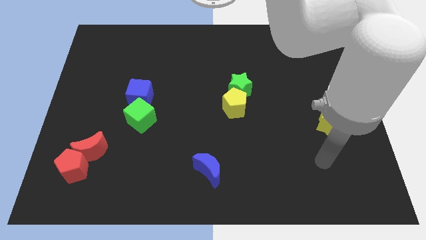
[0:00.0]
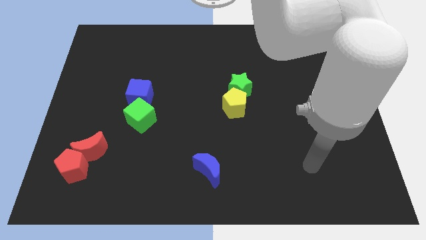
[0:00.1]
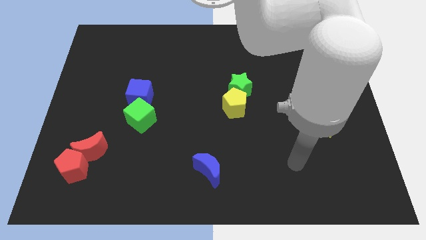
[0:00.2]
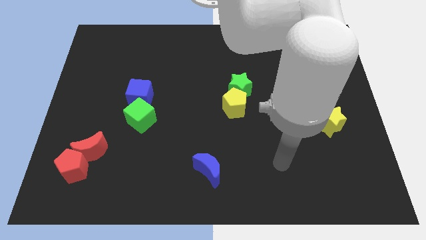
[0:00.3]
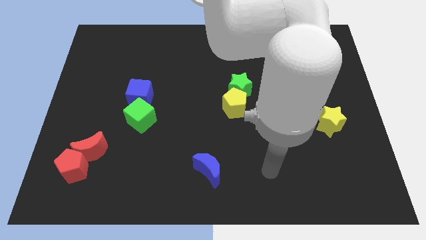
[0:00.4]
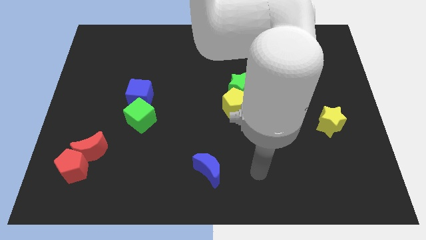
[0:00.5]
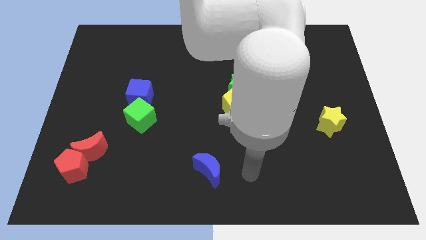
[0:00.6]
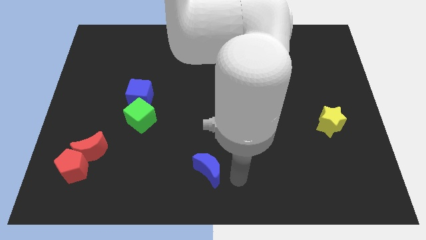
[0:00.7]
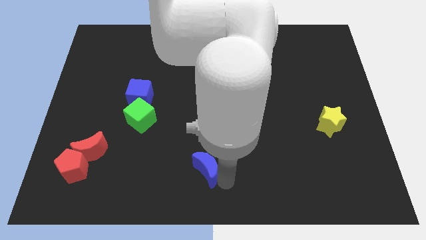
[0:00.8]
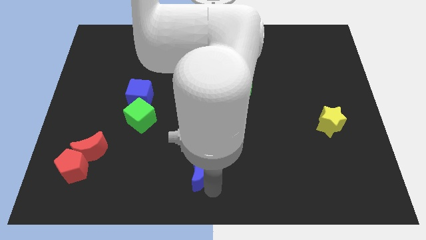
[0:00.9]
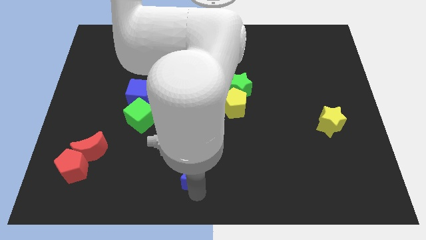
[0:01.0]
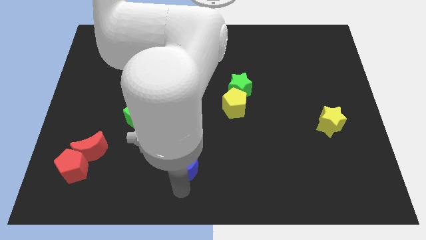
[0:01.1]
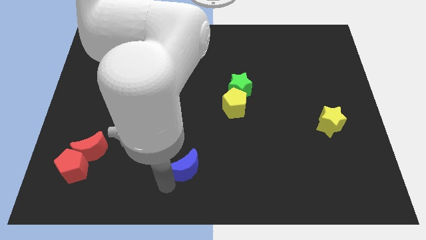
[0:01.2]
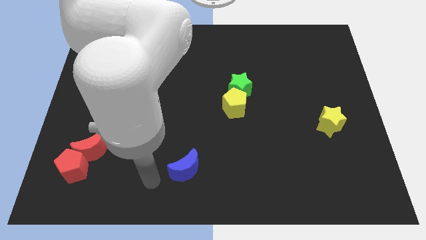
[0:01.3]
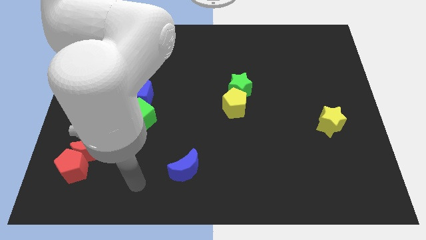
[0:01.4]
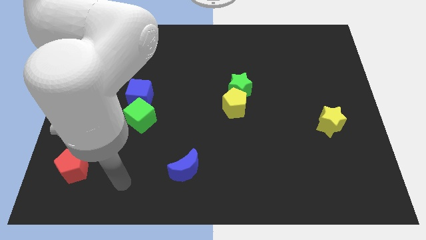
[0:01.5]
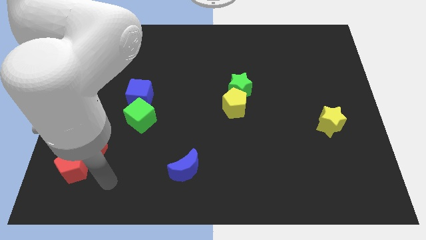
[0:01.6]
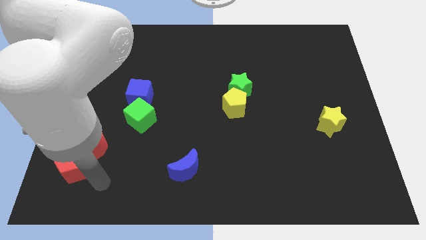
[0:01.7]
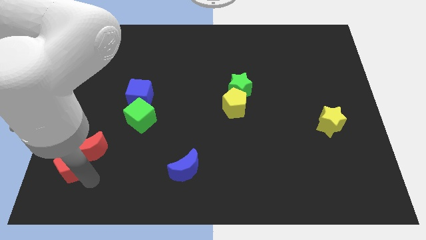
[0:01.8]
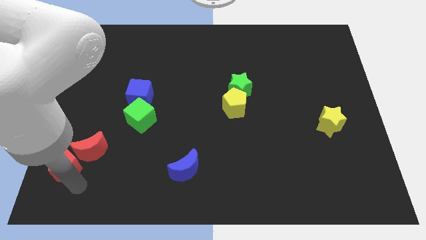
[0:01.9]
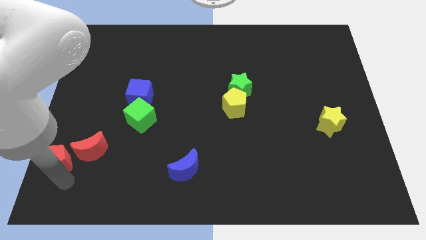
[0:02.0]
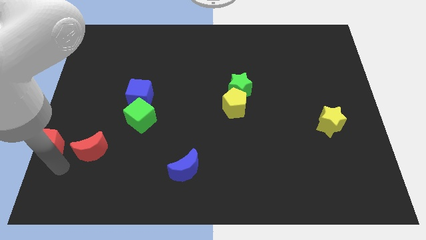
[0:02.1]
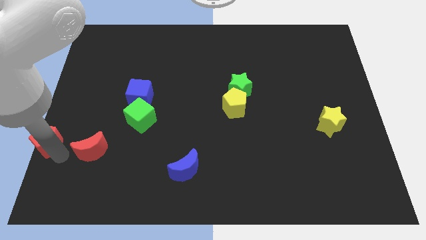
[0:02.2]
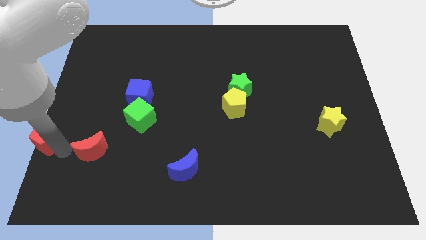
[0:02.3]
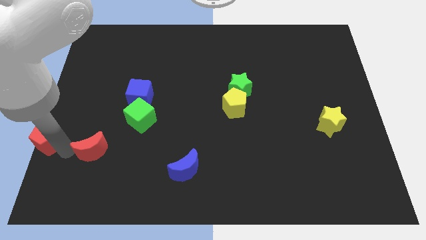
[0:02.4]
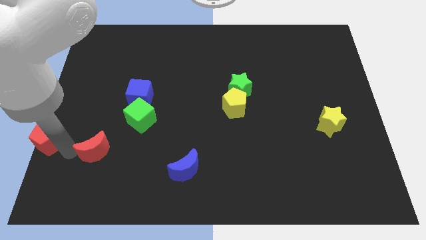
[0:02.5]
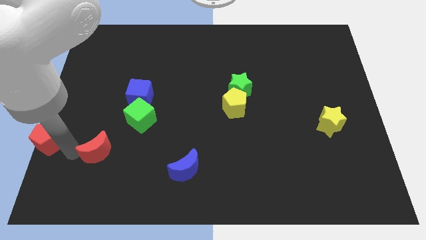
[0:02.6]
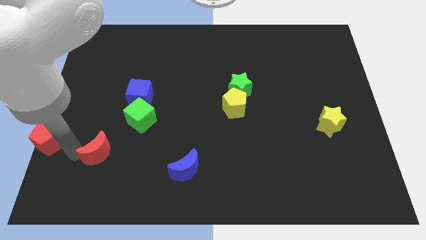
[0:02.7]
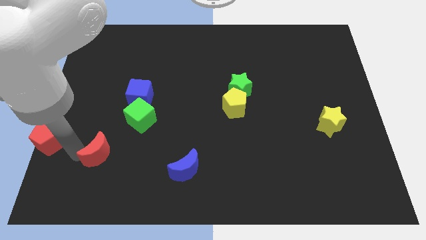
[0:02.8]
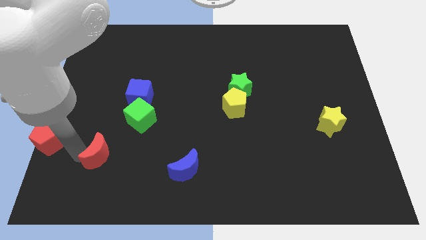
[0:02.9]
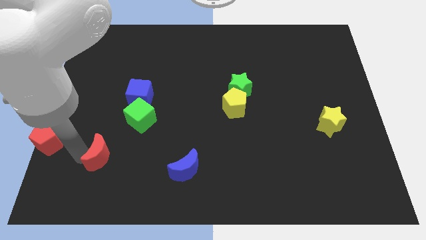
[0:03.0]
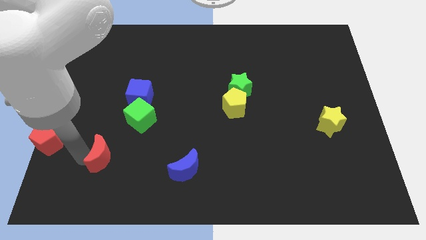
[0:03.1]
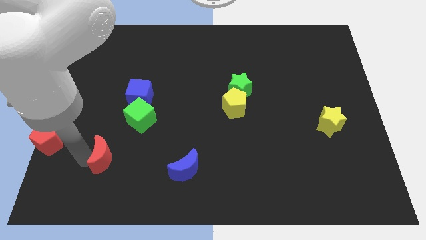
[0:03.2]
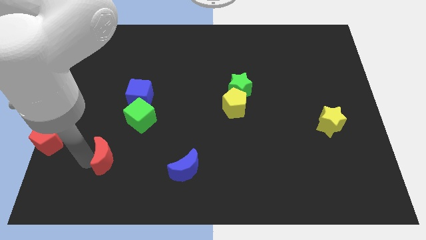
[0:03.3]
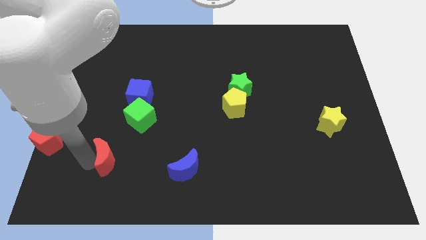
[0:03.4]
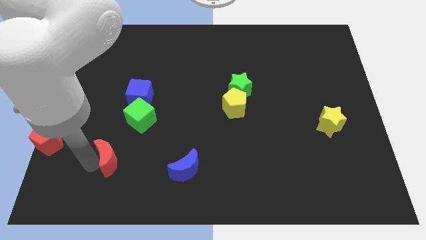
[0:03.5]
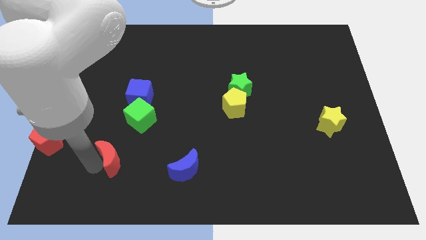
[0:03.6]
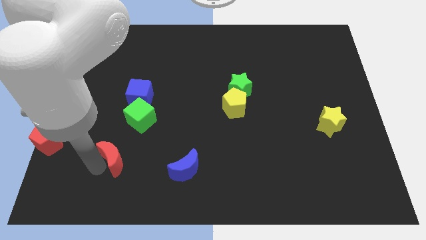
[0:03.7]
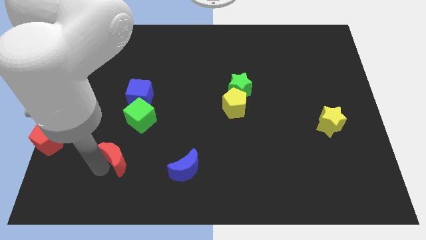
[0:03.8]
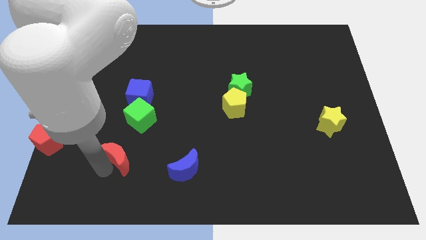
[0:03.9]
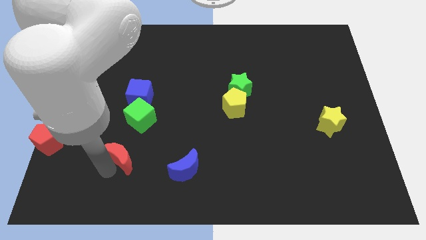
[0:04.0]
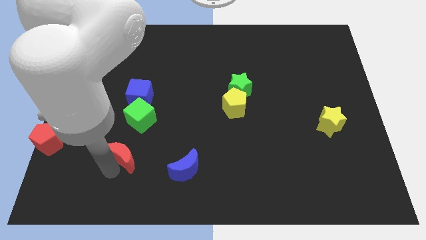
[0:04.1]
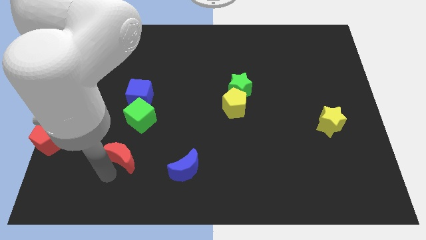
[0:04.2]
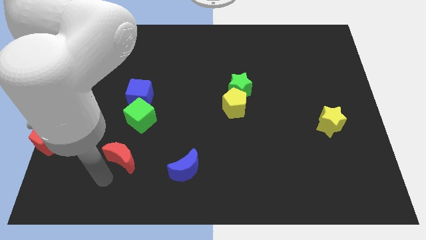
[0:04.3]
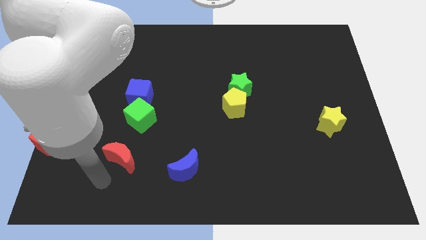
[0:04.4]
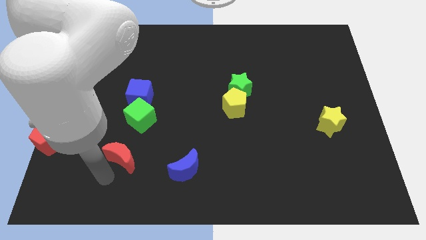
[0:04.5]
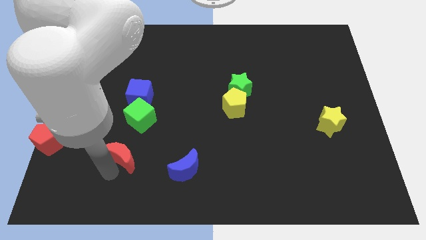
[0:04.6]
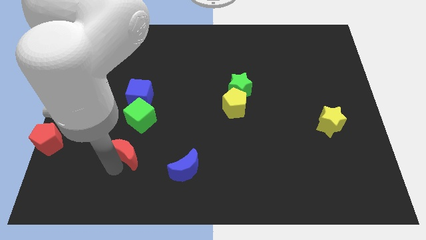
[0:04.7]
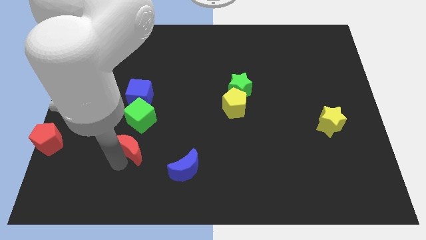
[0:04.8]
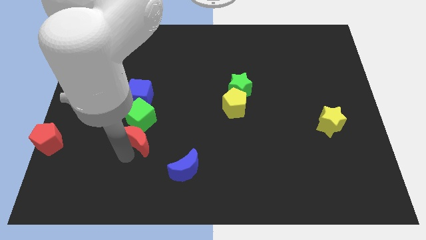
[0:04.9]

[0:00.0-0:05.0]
slightly slide the red moon upwards and right

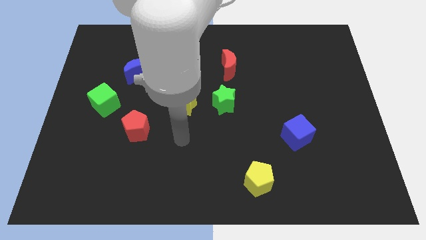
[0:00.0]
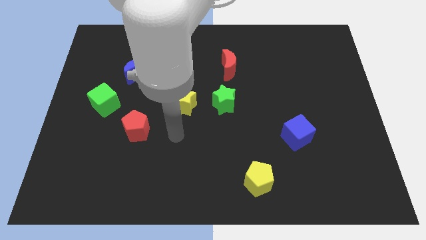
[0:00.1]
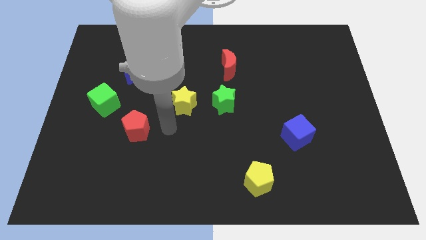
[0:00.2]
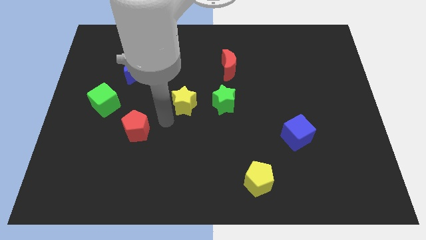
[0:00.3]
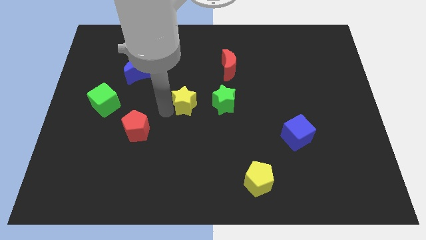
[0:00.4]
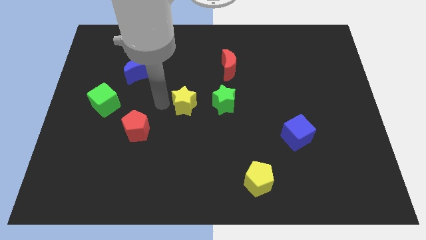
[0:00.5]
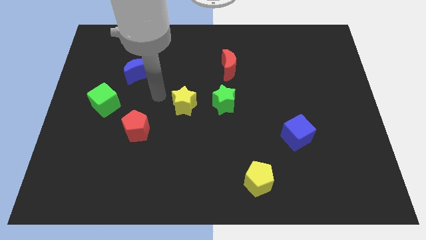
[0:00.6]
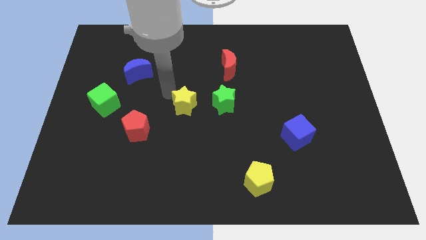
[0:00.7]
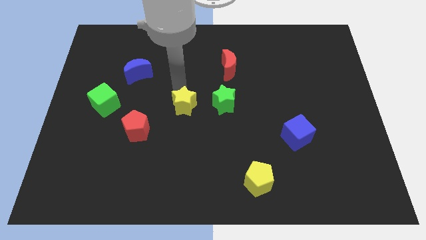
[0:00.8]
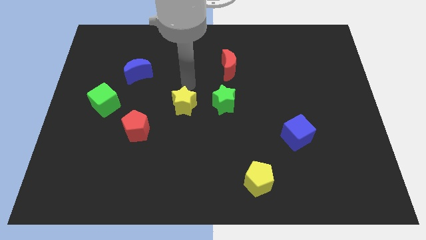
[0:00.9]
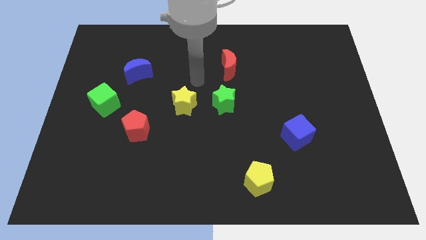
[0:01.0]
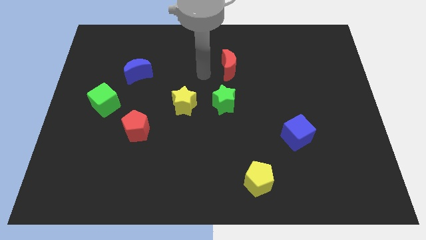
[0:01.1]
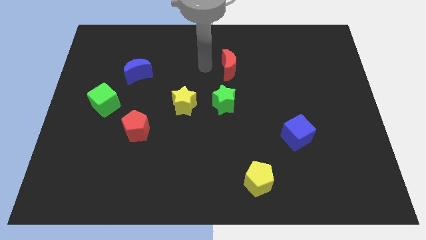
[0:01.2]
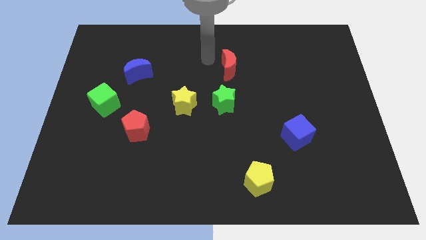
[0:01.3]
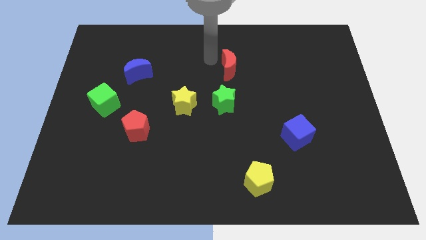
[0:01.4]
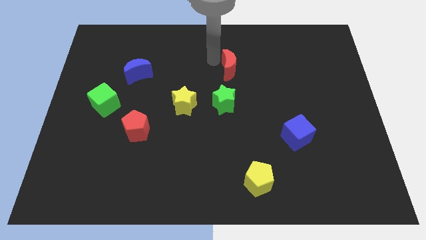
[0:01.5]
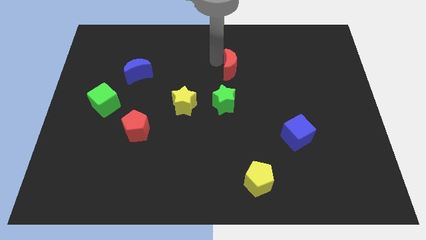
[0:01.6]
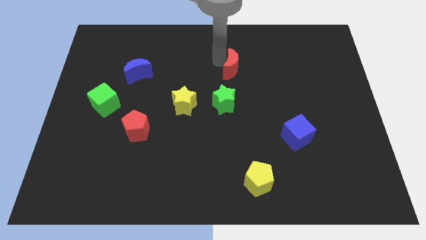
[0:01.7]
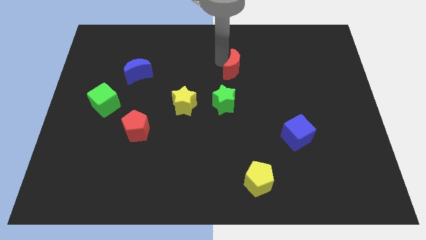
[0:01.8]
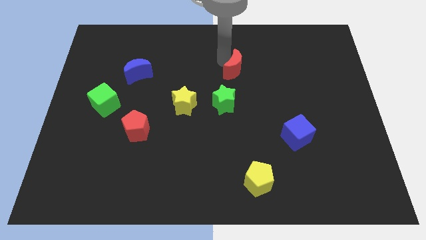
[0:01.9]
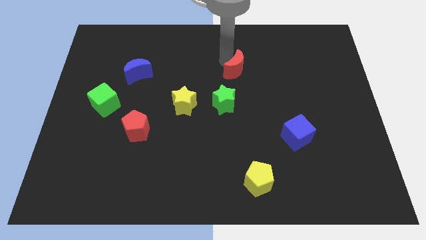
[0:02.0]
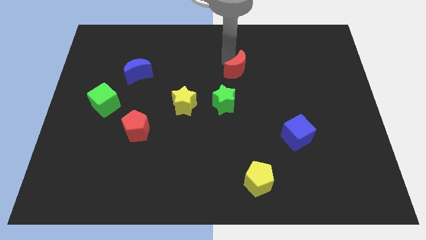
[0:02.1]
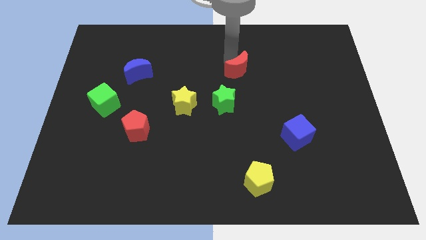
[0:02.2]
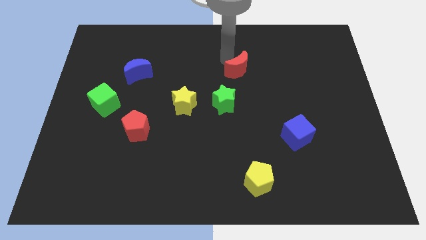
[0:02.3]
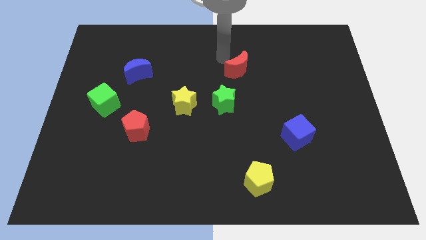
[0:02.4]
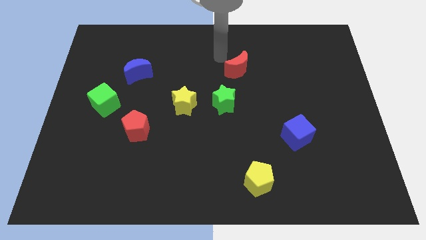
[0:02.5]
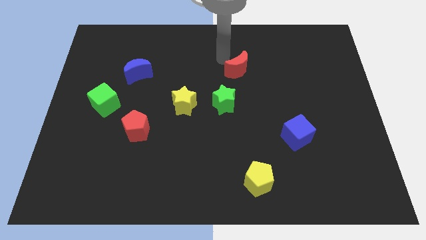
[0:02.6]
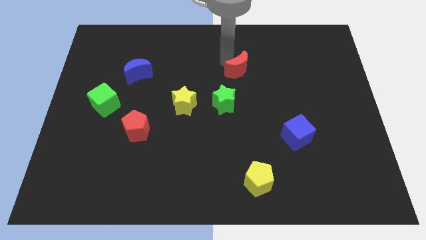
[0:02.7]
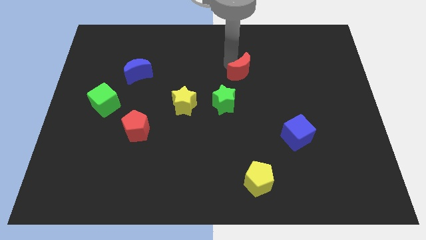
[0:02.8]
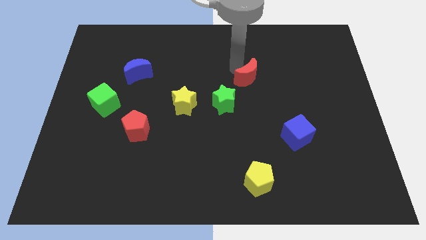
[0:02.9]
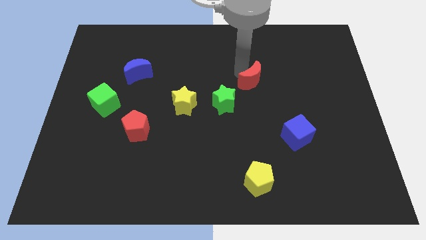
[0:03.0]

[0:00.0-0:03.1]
slide the red moon a little bit diagonally down and to the right
